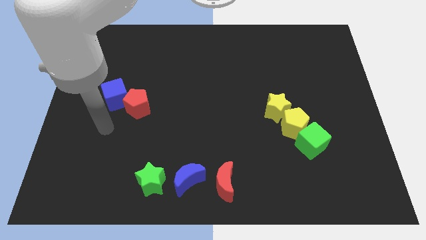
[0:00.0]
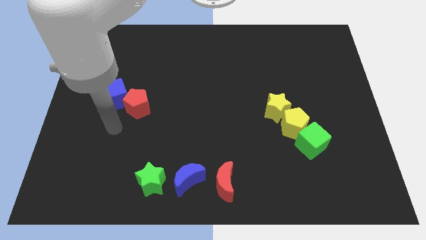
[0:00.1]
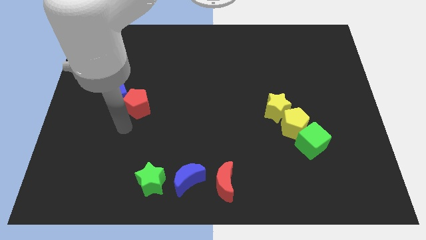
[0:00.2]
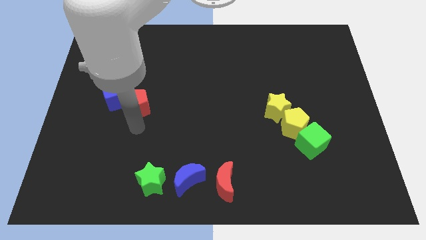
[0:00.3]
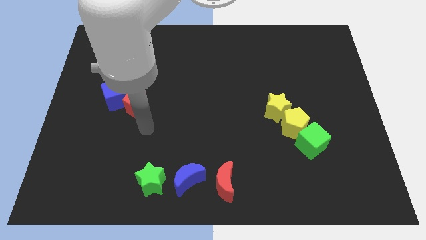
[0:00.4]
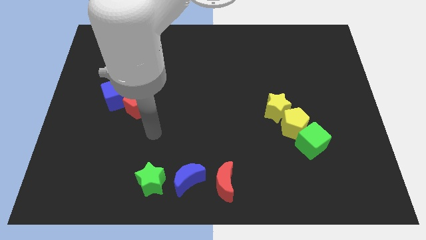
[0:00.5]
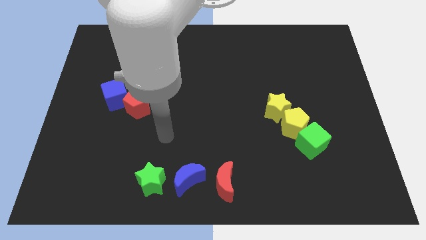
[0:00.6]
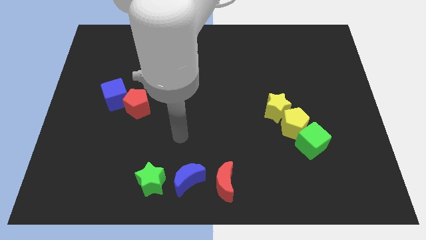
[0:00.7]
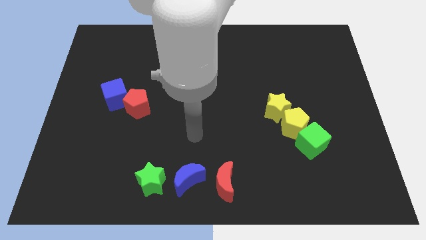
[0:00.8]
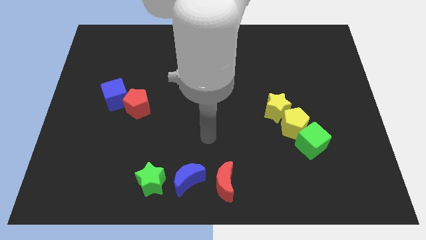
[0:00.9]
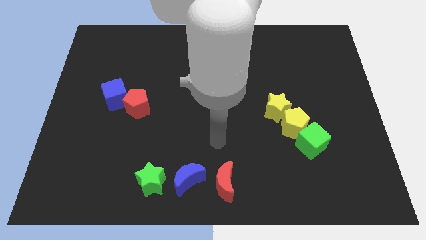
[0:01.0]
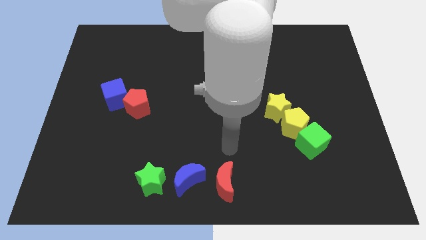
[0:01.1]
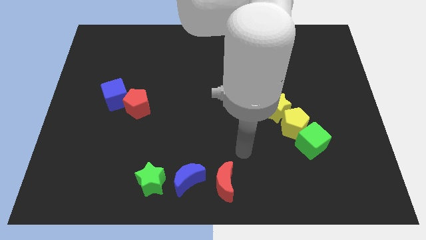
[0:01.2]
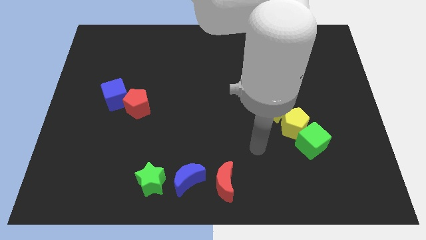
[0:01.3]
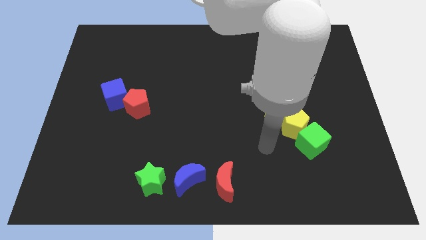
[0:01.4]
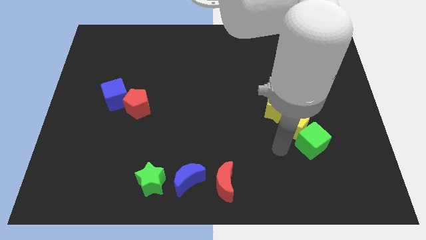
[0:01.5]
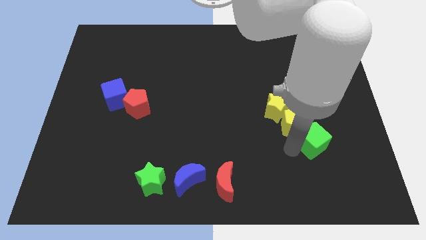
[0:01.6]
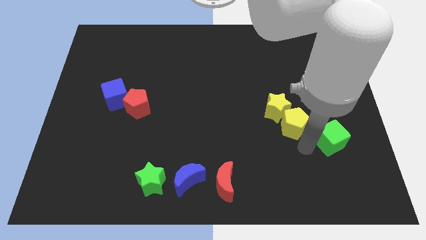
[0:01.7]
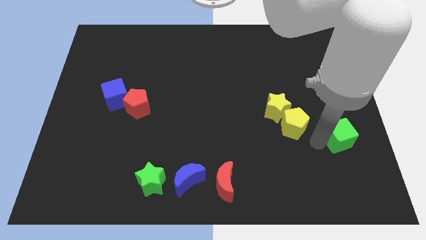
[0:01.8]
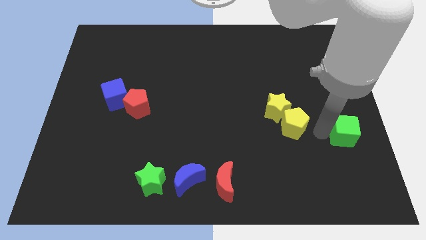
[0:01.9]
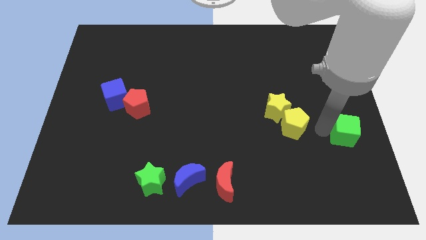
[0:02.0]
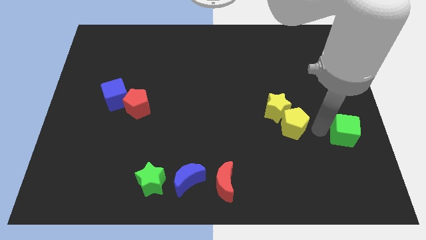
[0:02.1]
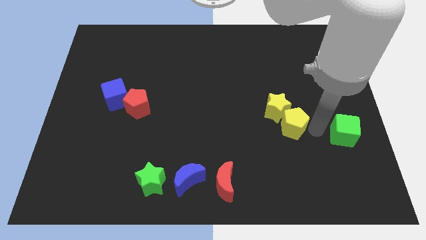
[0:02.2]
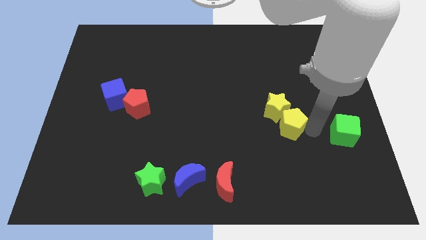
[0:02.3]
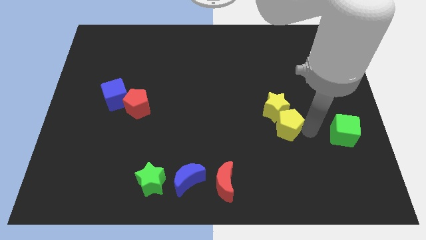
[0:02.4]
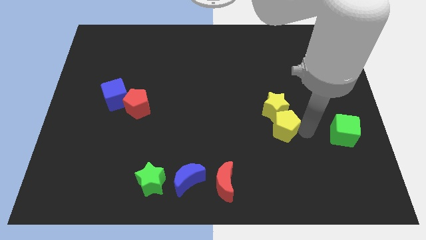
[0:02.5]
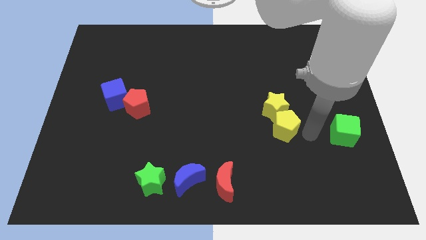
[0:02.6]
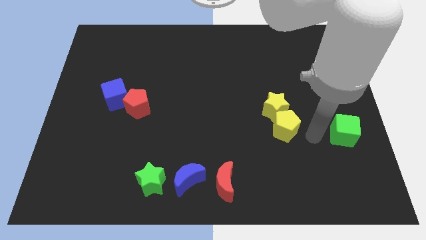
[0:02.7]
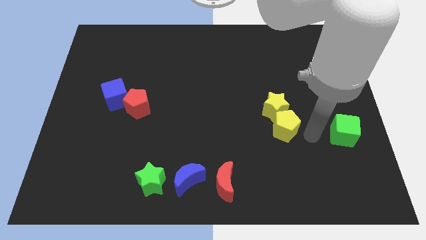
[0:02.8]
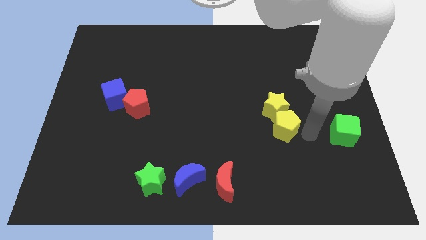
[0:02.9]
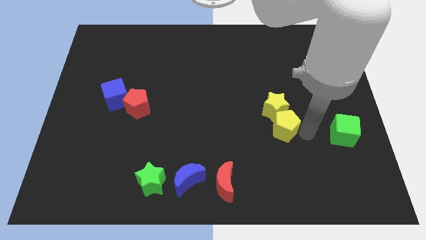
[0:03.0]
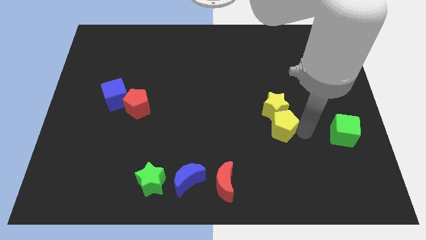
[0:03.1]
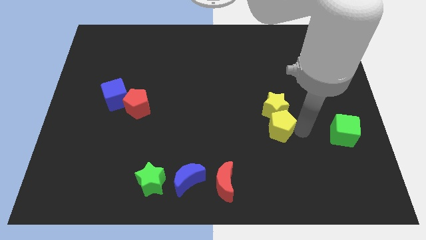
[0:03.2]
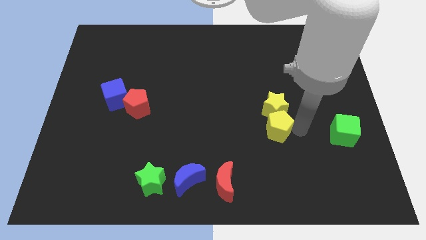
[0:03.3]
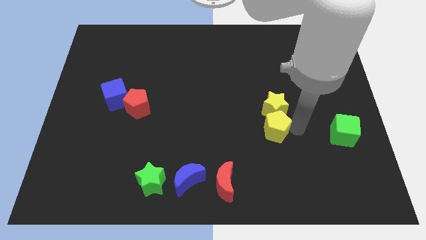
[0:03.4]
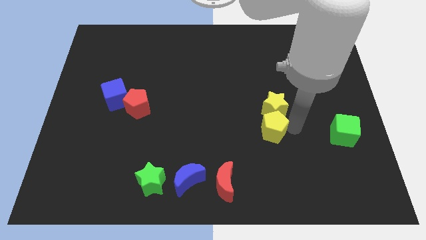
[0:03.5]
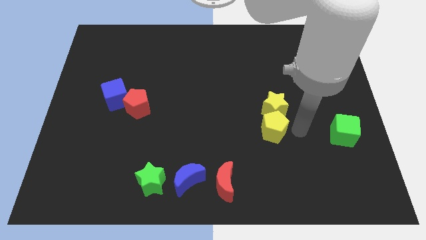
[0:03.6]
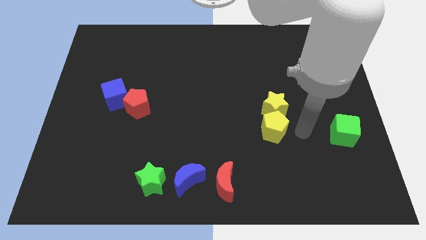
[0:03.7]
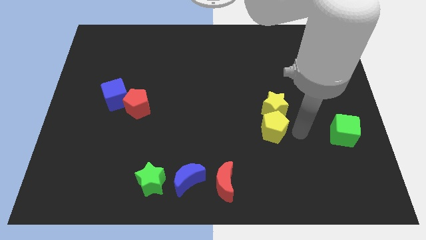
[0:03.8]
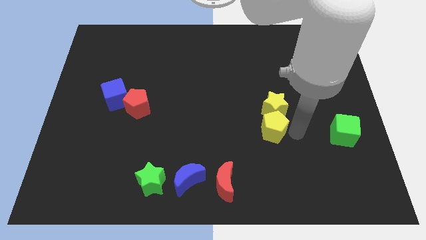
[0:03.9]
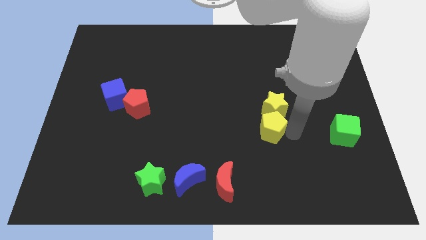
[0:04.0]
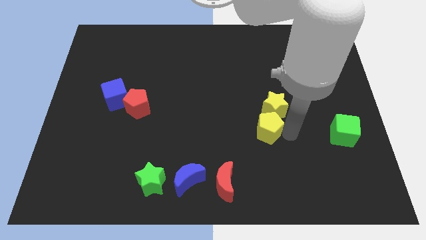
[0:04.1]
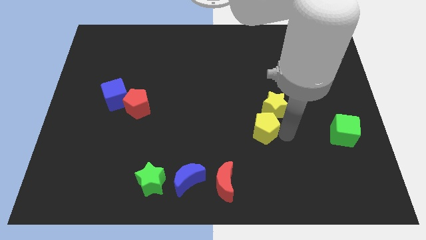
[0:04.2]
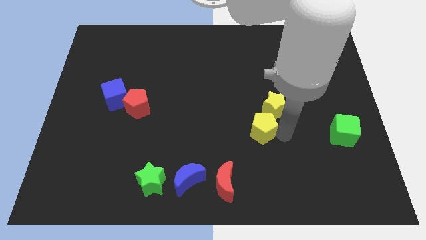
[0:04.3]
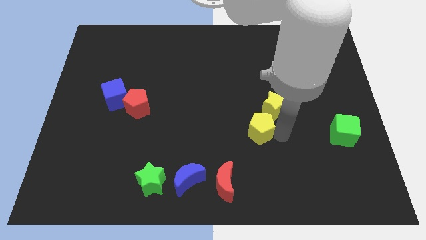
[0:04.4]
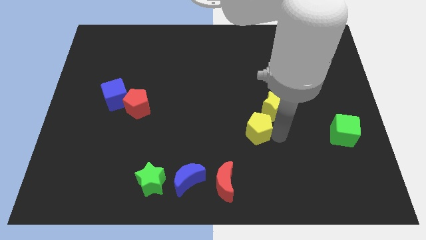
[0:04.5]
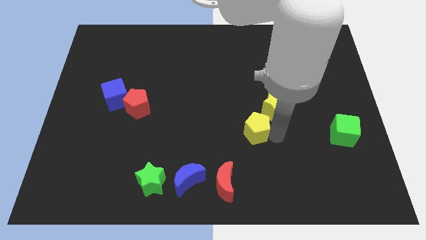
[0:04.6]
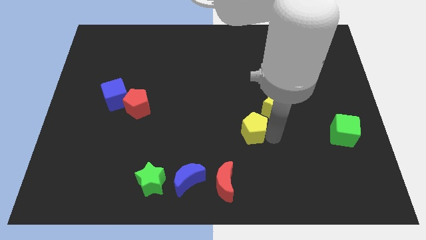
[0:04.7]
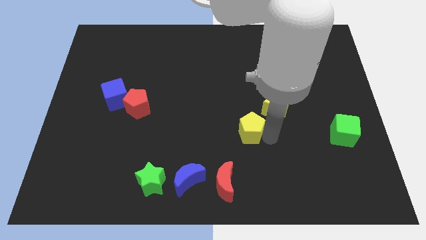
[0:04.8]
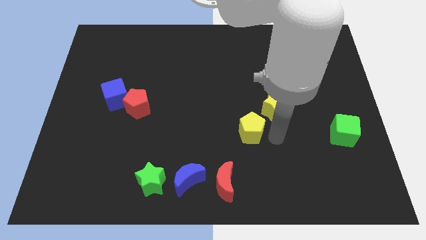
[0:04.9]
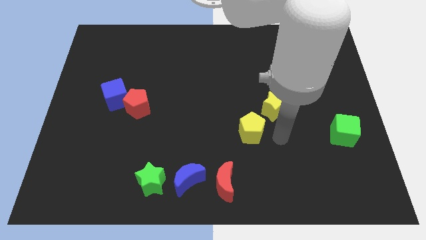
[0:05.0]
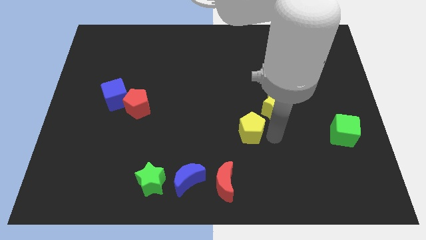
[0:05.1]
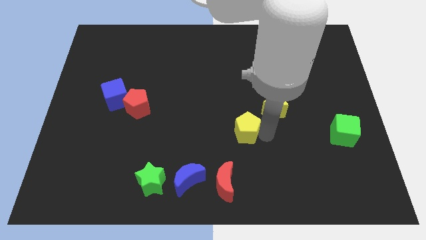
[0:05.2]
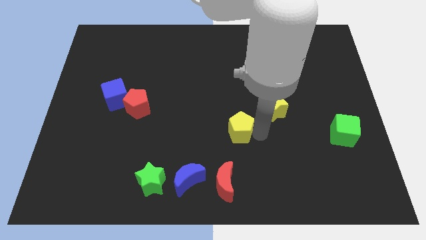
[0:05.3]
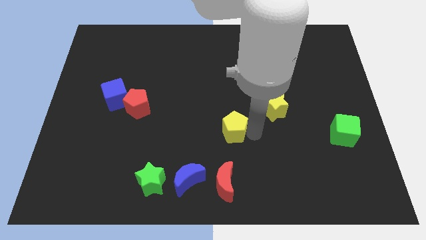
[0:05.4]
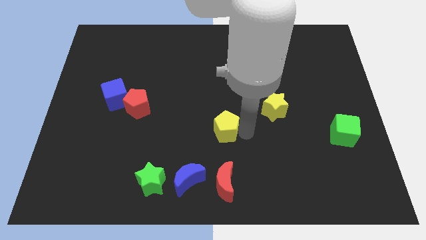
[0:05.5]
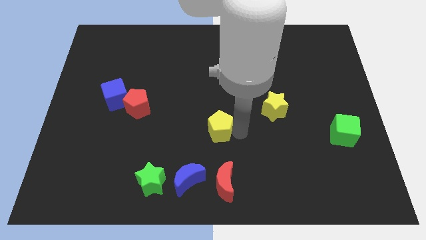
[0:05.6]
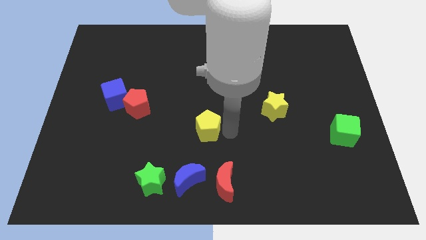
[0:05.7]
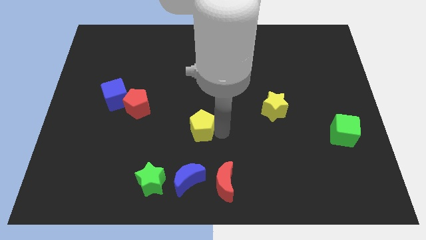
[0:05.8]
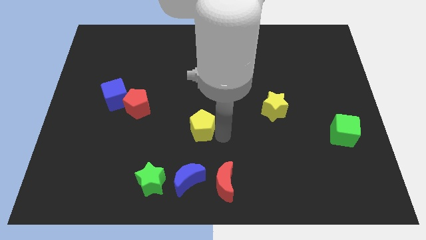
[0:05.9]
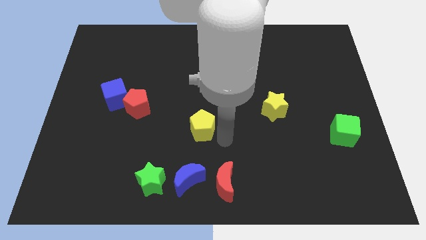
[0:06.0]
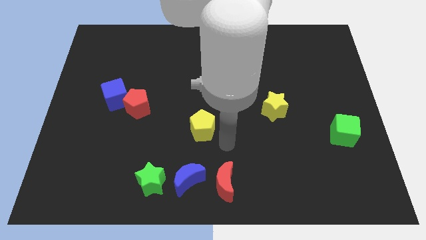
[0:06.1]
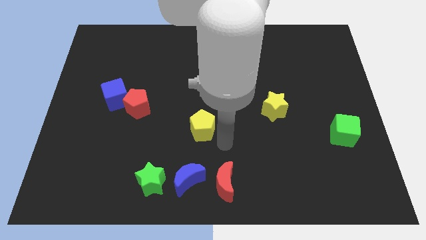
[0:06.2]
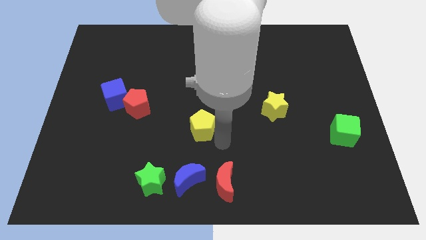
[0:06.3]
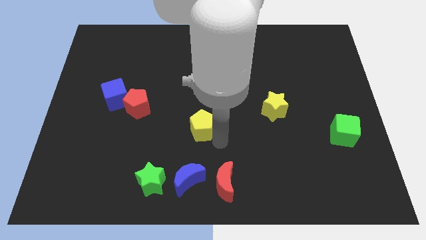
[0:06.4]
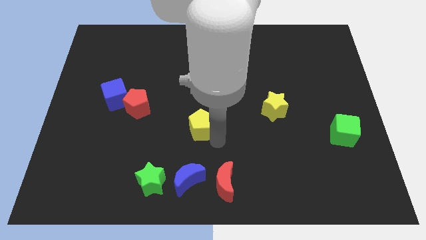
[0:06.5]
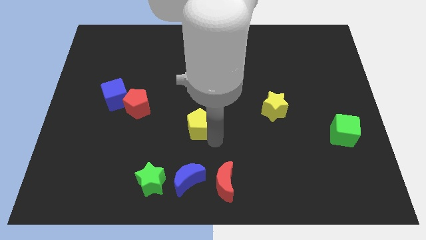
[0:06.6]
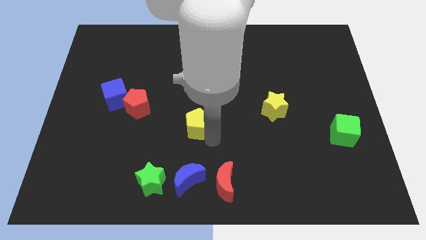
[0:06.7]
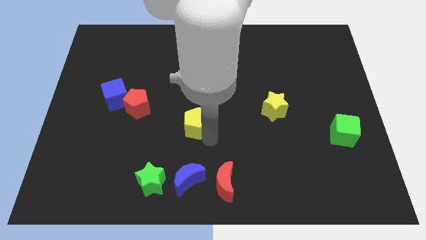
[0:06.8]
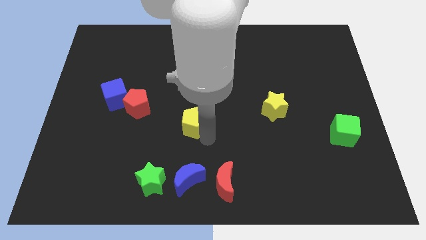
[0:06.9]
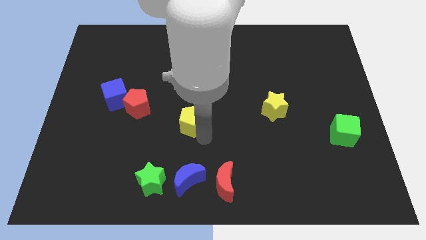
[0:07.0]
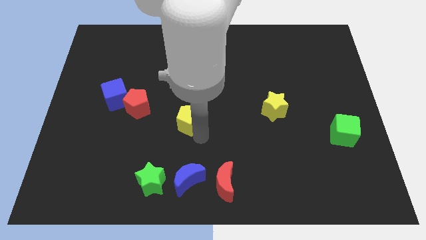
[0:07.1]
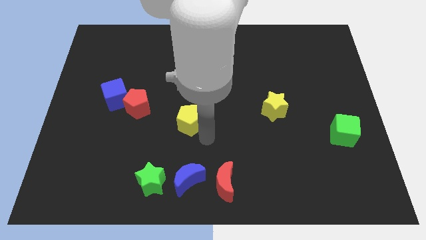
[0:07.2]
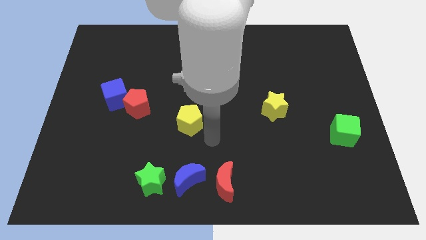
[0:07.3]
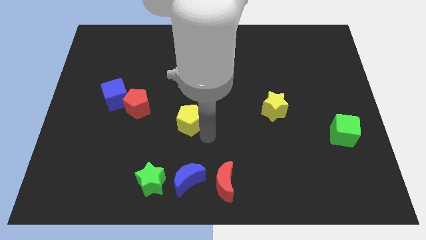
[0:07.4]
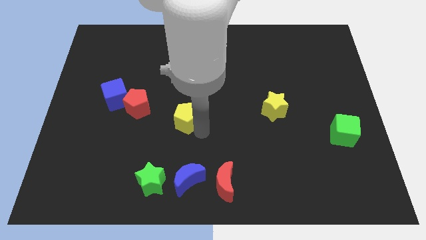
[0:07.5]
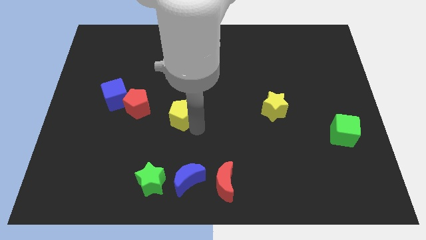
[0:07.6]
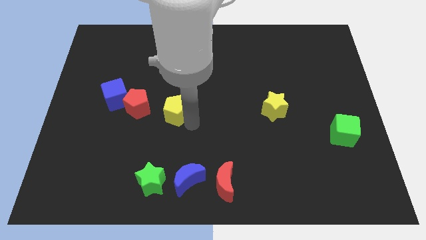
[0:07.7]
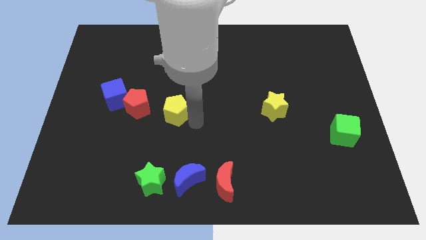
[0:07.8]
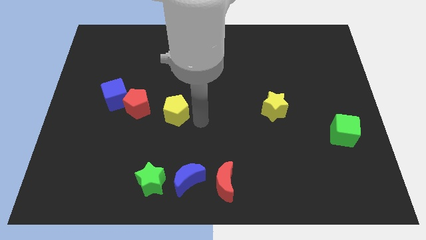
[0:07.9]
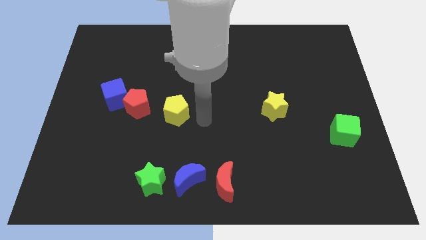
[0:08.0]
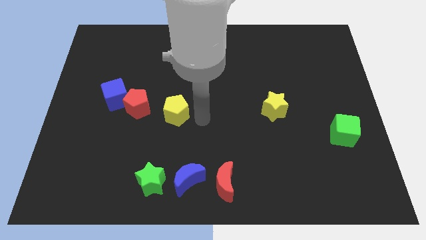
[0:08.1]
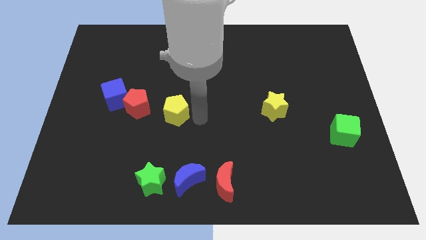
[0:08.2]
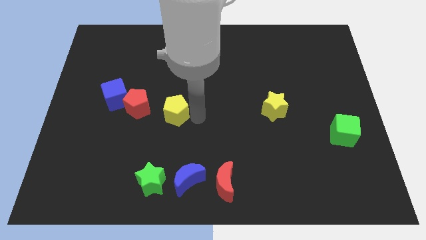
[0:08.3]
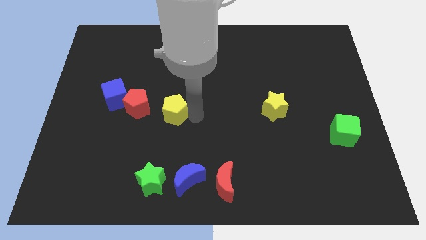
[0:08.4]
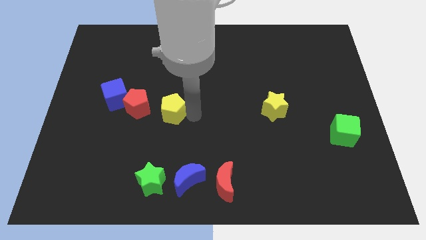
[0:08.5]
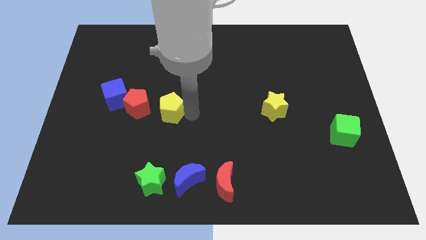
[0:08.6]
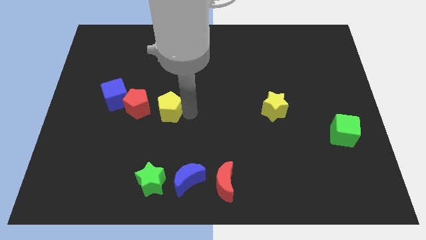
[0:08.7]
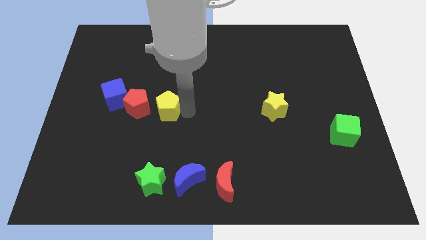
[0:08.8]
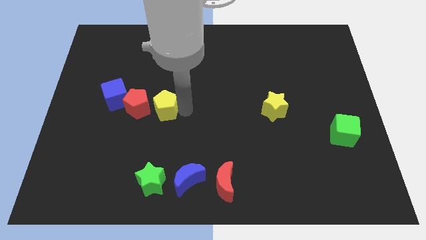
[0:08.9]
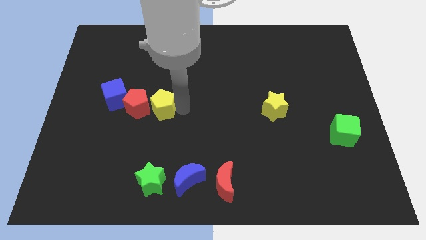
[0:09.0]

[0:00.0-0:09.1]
slide the yellow pentagon to the red pentagon
